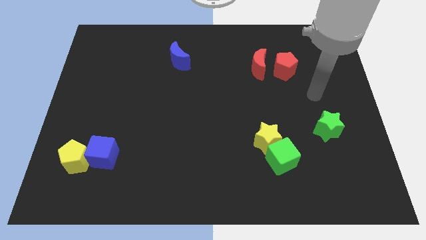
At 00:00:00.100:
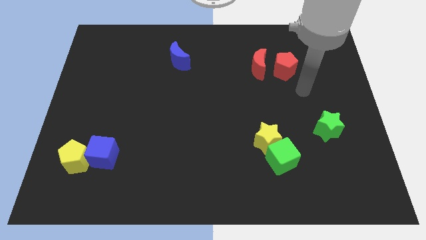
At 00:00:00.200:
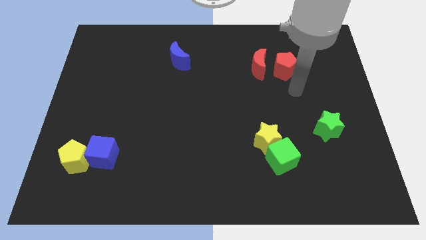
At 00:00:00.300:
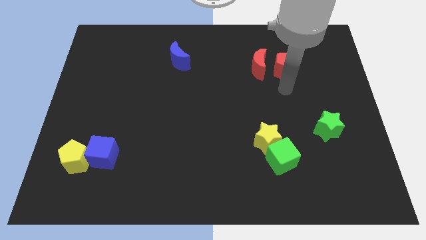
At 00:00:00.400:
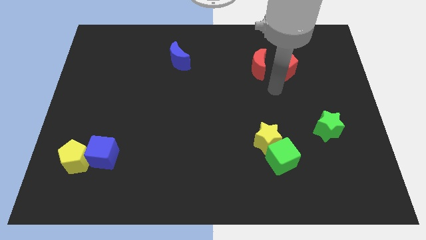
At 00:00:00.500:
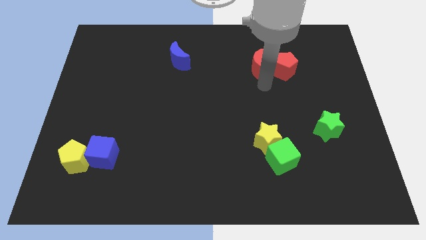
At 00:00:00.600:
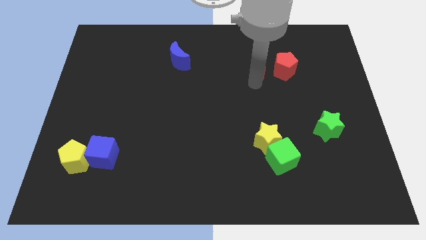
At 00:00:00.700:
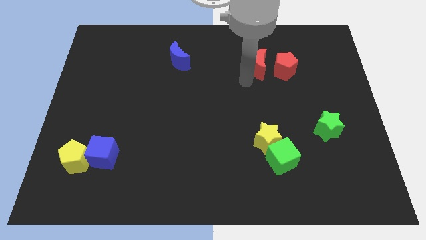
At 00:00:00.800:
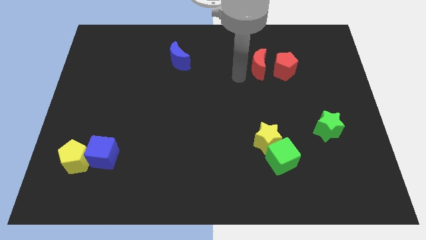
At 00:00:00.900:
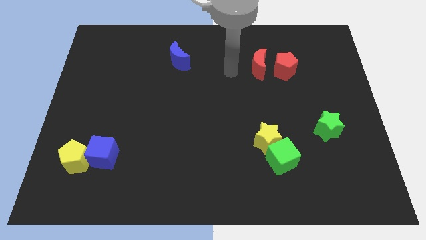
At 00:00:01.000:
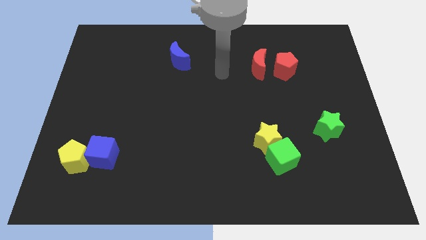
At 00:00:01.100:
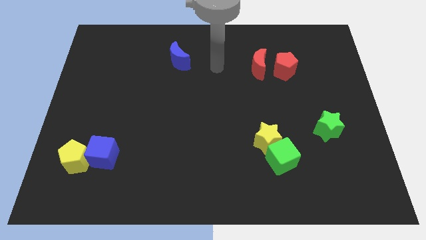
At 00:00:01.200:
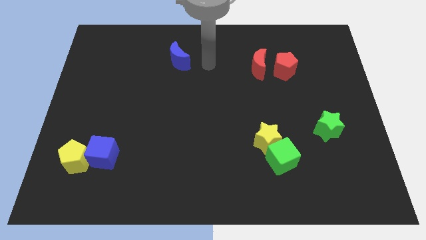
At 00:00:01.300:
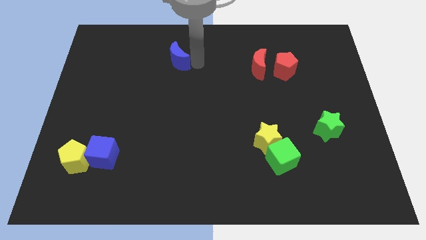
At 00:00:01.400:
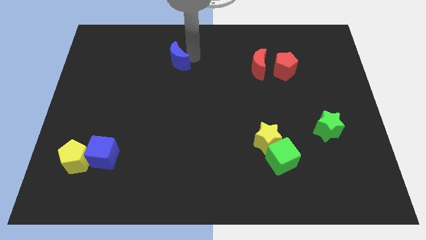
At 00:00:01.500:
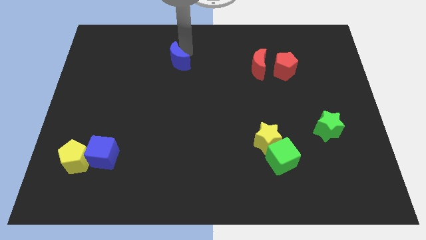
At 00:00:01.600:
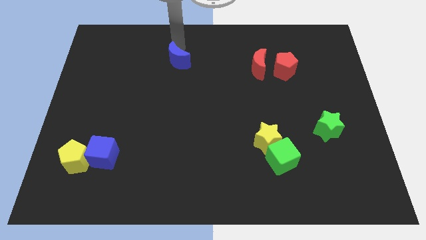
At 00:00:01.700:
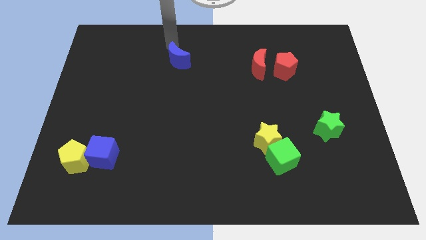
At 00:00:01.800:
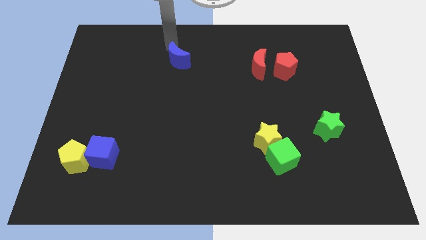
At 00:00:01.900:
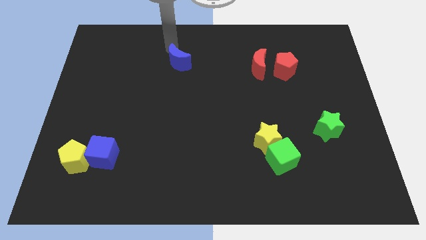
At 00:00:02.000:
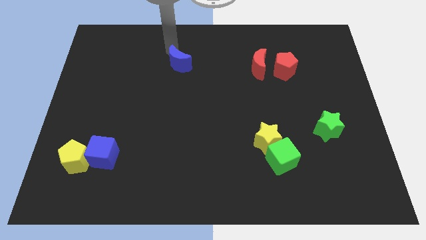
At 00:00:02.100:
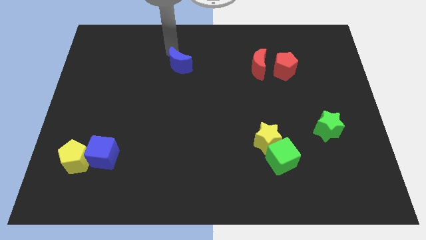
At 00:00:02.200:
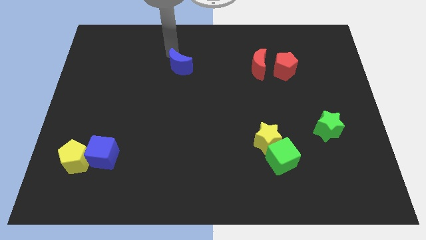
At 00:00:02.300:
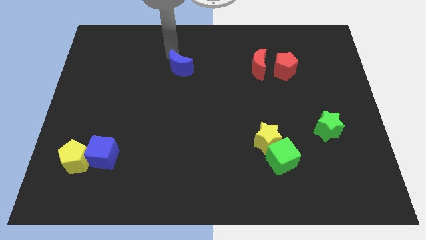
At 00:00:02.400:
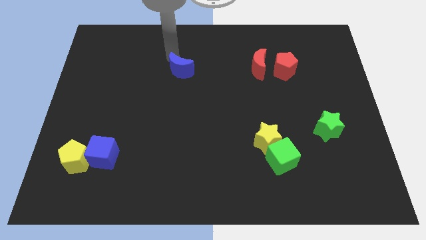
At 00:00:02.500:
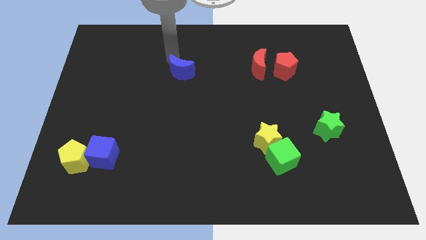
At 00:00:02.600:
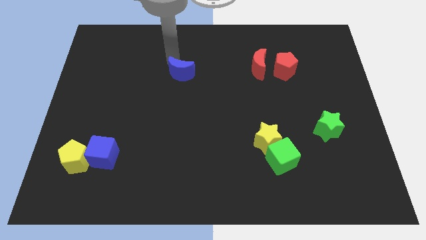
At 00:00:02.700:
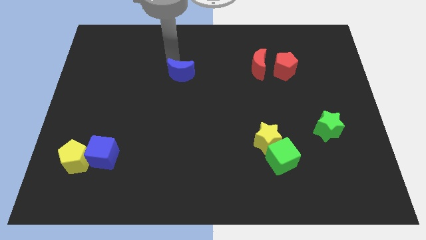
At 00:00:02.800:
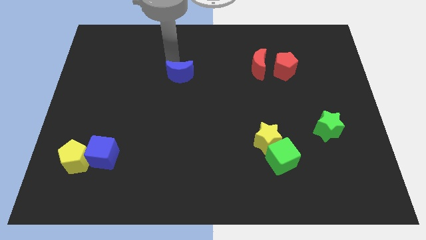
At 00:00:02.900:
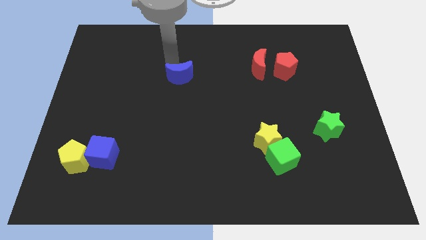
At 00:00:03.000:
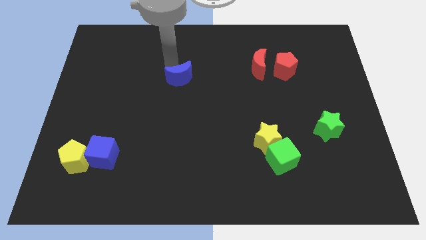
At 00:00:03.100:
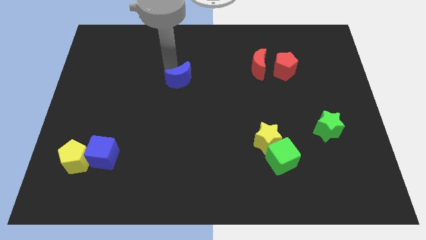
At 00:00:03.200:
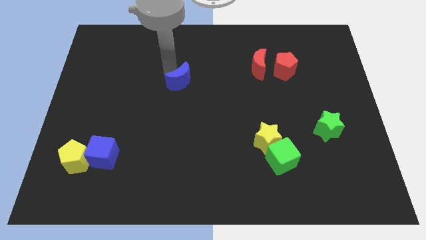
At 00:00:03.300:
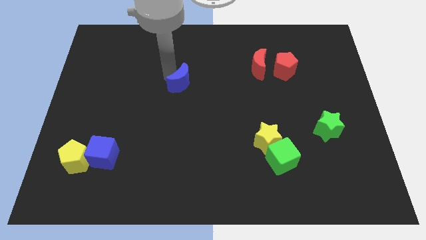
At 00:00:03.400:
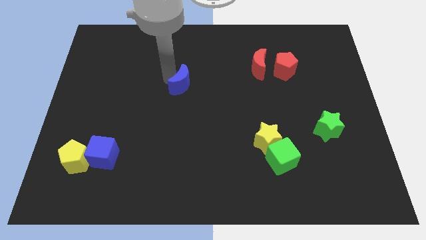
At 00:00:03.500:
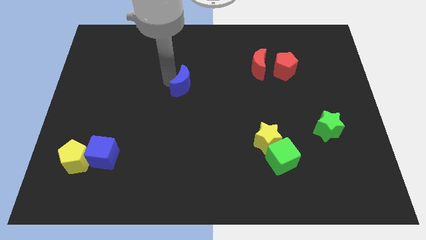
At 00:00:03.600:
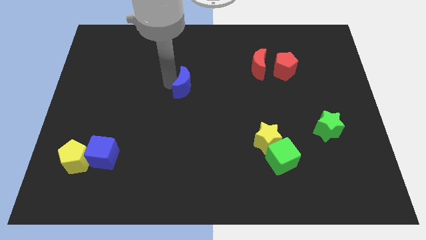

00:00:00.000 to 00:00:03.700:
push the blue moon downwards and right diagonally a bit

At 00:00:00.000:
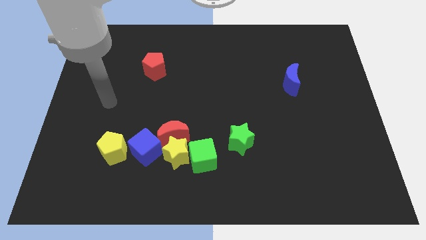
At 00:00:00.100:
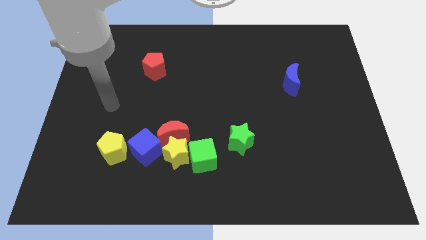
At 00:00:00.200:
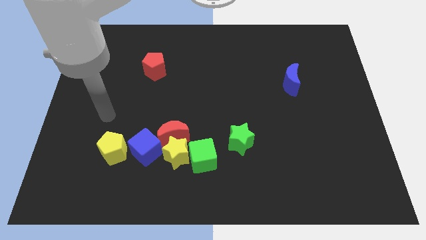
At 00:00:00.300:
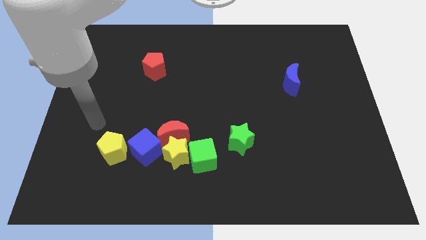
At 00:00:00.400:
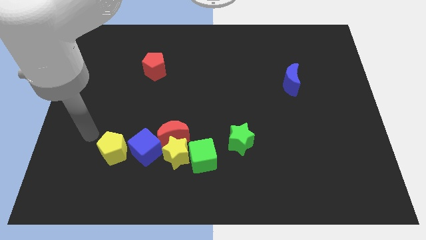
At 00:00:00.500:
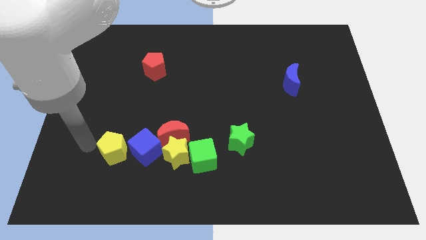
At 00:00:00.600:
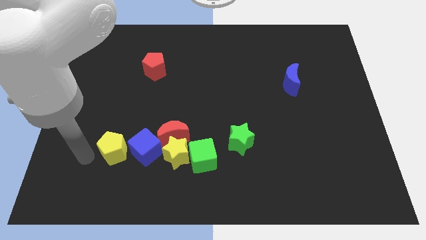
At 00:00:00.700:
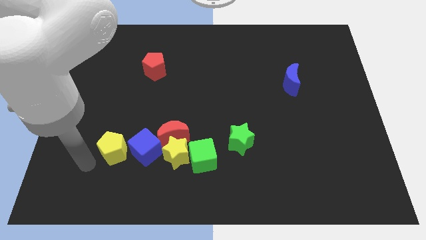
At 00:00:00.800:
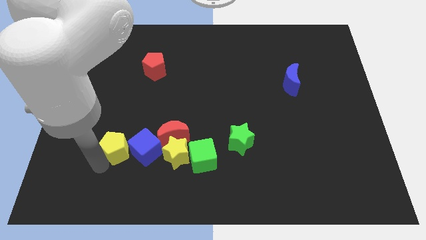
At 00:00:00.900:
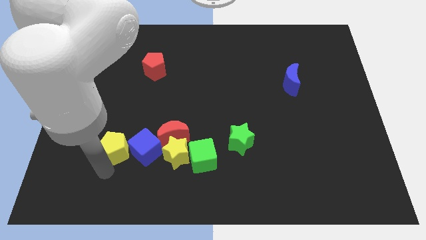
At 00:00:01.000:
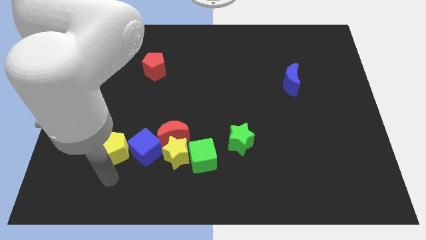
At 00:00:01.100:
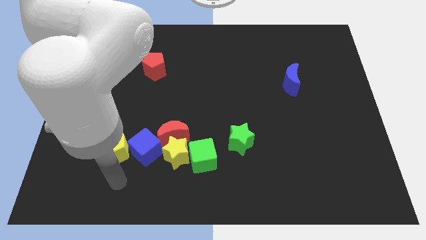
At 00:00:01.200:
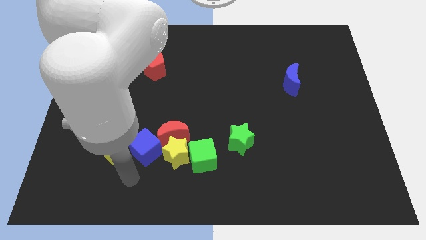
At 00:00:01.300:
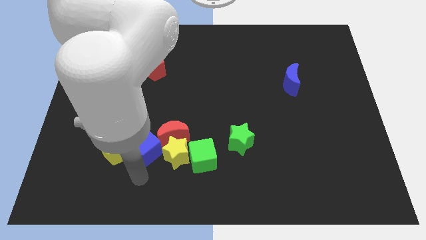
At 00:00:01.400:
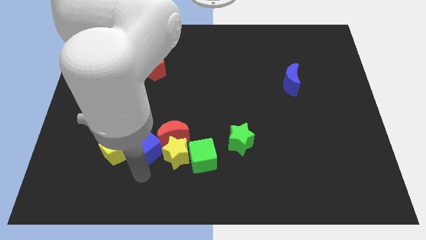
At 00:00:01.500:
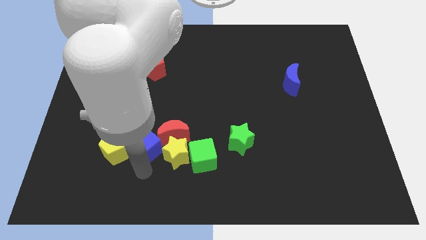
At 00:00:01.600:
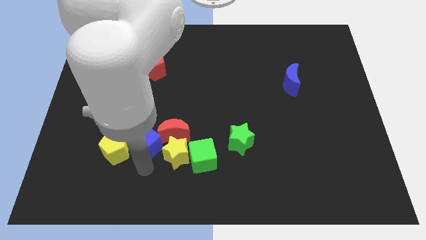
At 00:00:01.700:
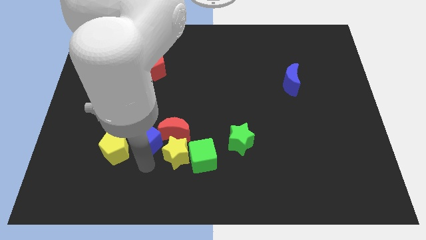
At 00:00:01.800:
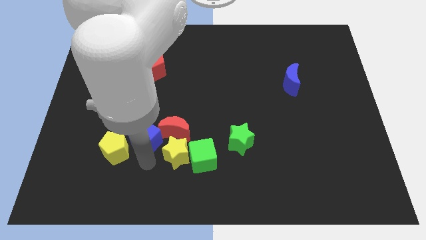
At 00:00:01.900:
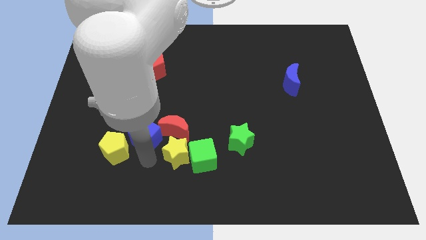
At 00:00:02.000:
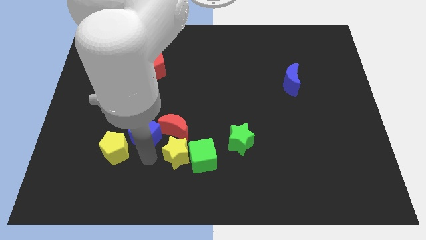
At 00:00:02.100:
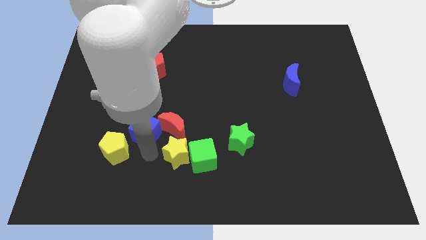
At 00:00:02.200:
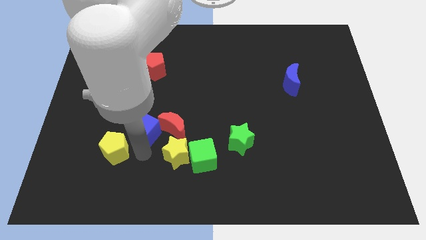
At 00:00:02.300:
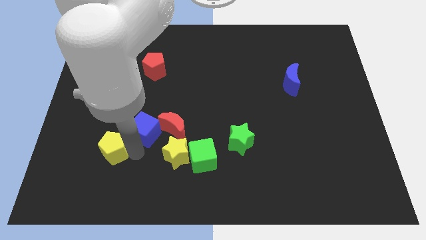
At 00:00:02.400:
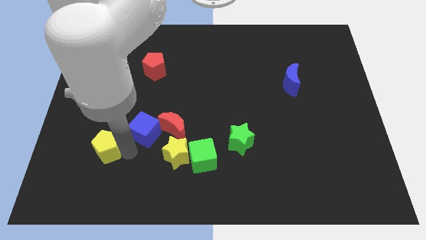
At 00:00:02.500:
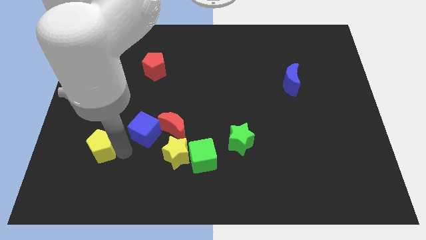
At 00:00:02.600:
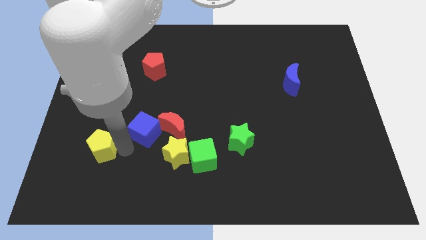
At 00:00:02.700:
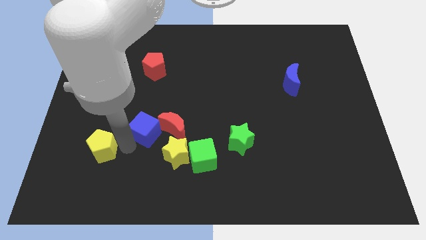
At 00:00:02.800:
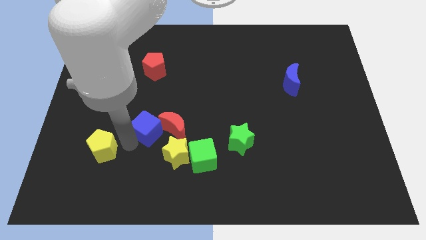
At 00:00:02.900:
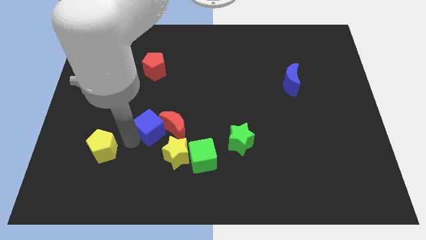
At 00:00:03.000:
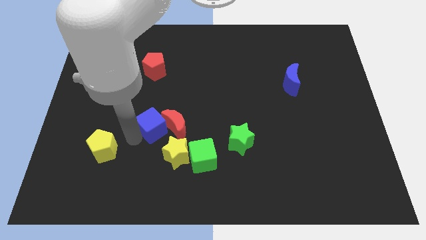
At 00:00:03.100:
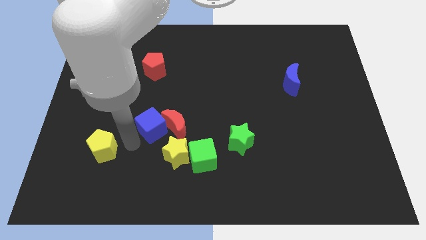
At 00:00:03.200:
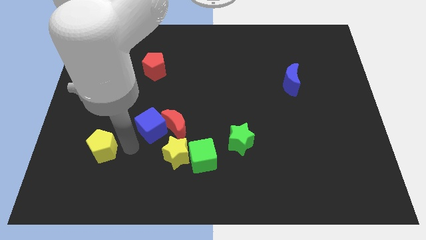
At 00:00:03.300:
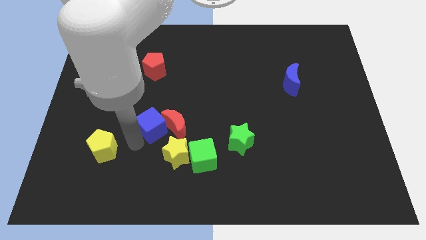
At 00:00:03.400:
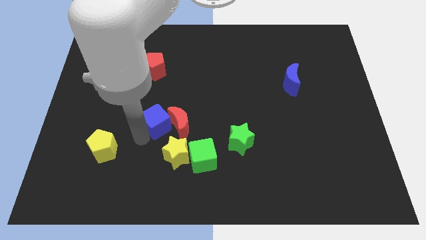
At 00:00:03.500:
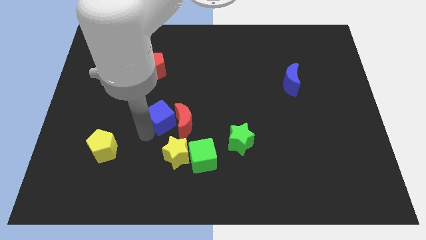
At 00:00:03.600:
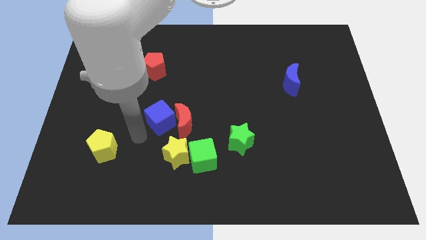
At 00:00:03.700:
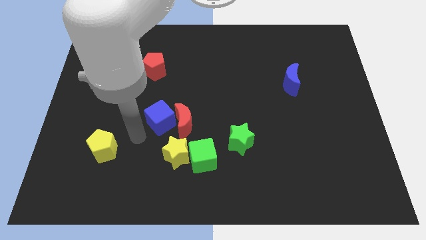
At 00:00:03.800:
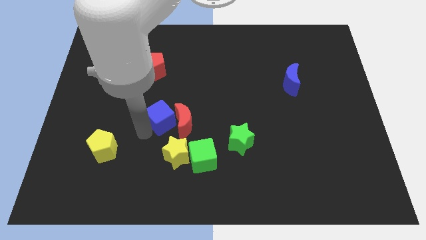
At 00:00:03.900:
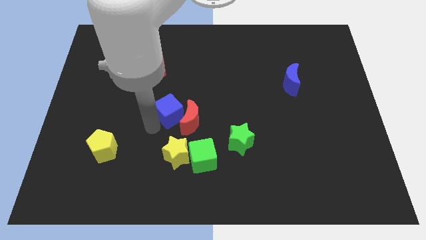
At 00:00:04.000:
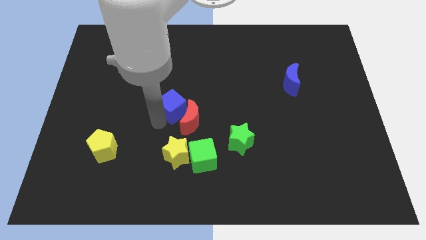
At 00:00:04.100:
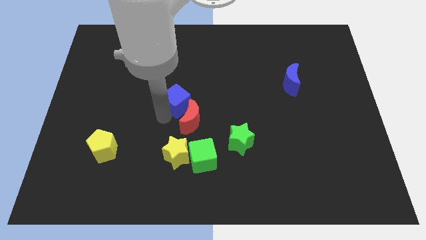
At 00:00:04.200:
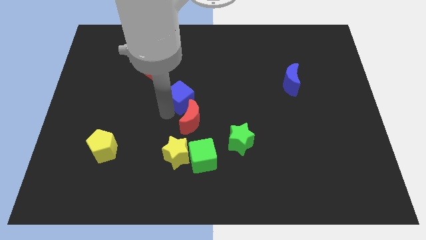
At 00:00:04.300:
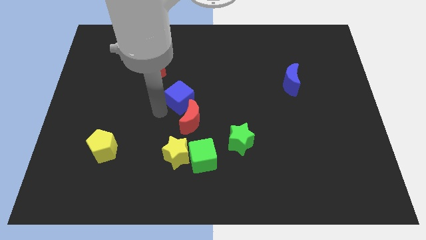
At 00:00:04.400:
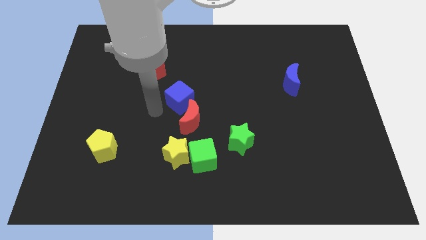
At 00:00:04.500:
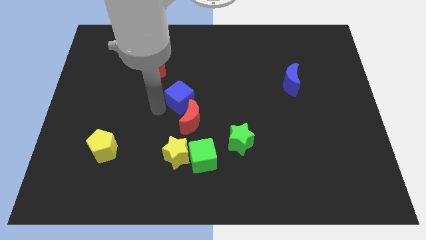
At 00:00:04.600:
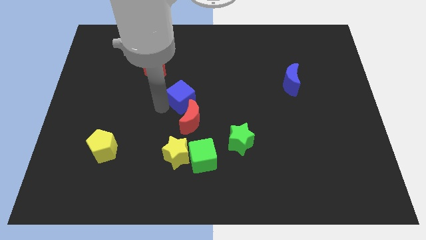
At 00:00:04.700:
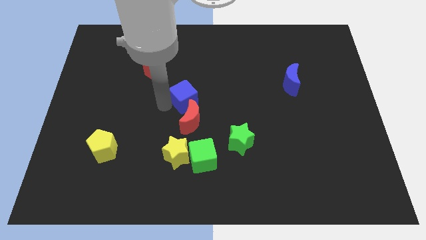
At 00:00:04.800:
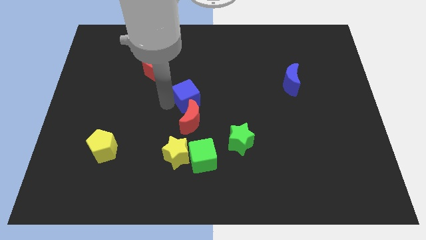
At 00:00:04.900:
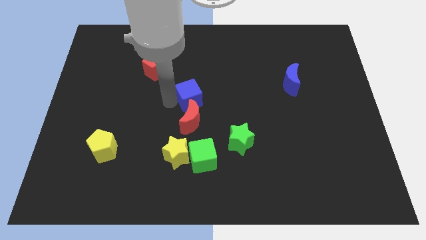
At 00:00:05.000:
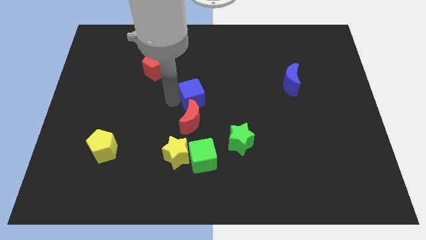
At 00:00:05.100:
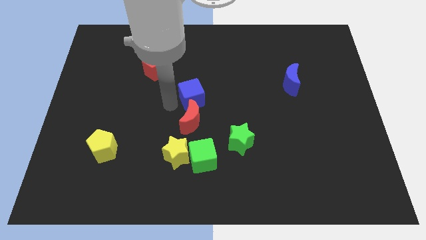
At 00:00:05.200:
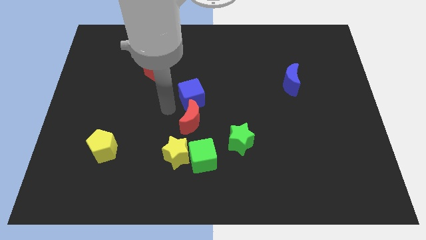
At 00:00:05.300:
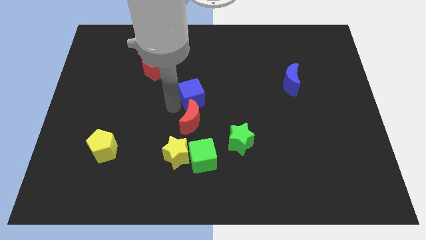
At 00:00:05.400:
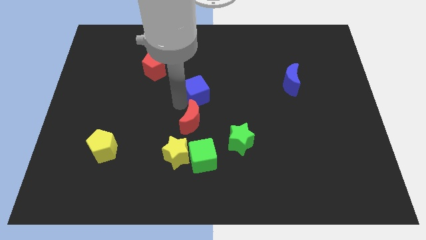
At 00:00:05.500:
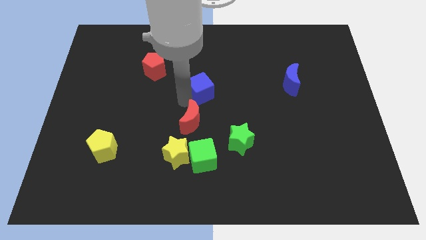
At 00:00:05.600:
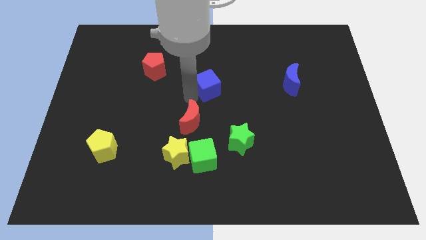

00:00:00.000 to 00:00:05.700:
move the blue cube diagonally upwards and right
